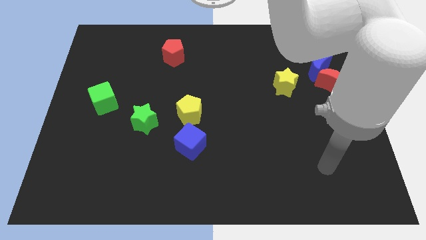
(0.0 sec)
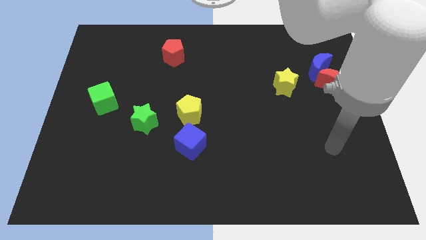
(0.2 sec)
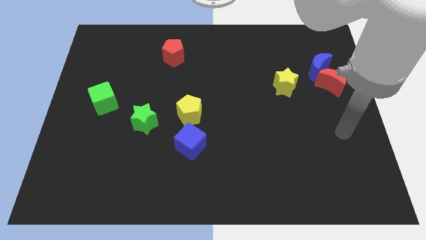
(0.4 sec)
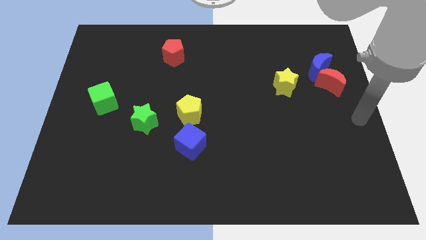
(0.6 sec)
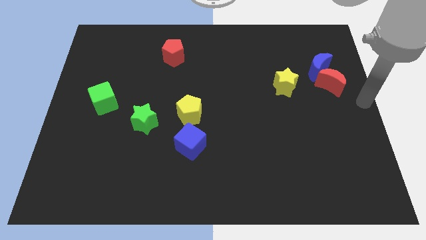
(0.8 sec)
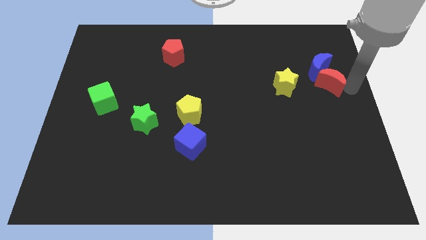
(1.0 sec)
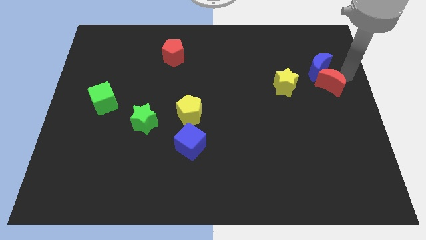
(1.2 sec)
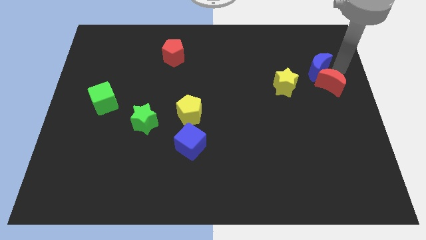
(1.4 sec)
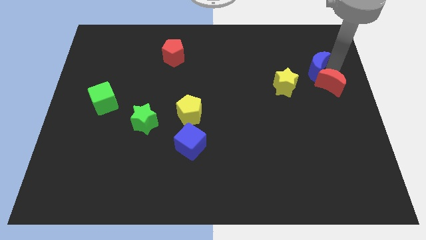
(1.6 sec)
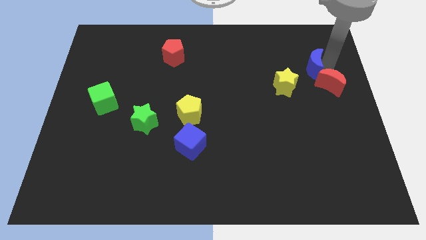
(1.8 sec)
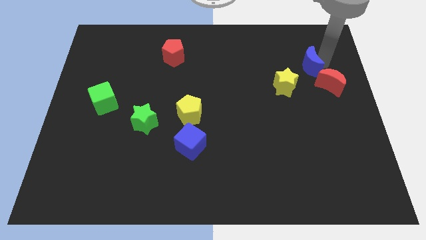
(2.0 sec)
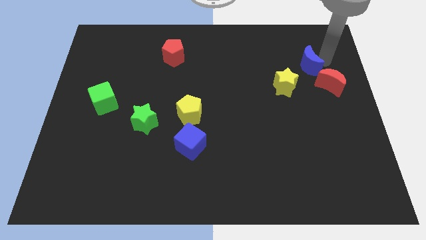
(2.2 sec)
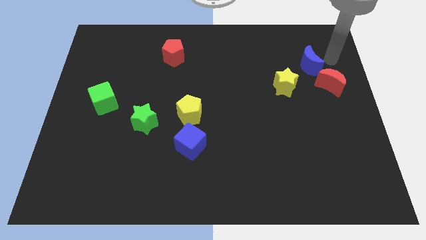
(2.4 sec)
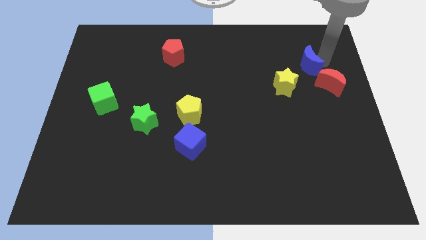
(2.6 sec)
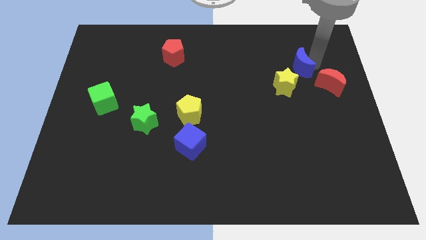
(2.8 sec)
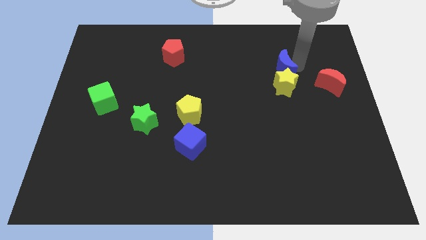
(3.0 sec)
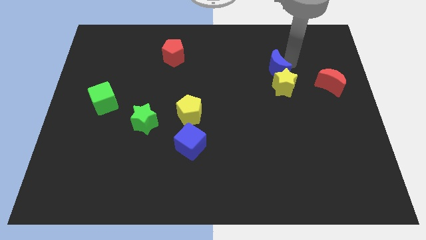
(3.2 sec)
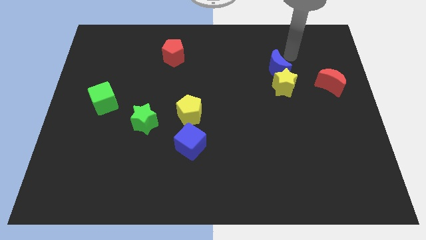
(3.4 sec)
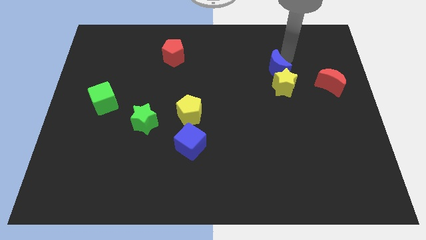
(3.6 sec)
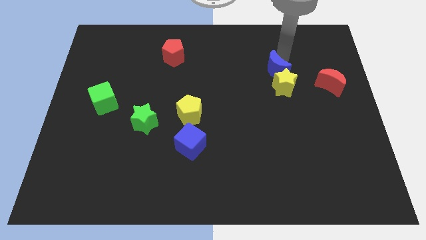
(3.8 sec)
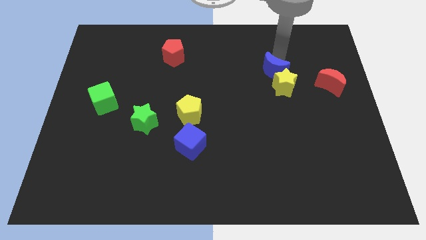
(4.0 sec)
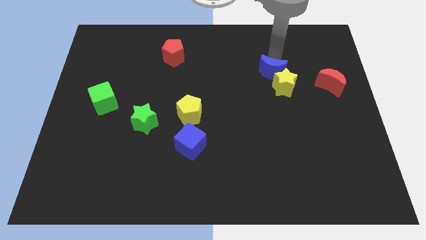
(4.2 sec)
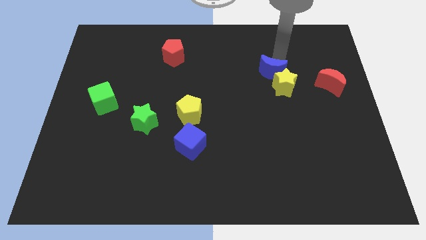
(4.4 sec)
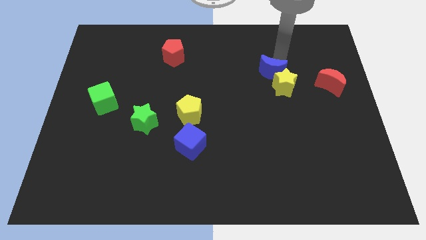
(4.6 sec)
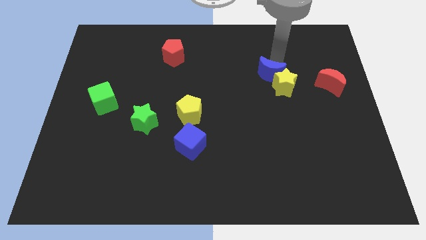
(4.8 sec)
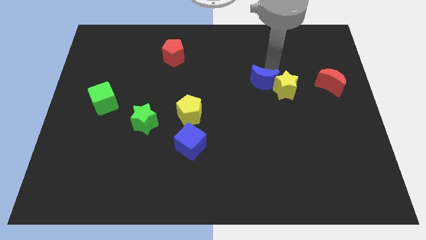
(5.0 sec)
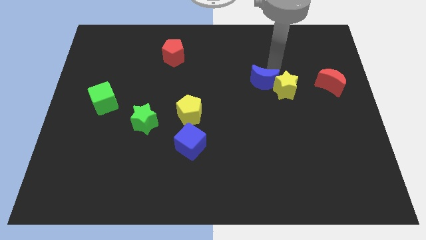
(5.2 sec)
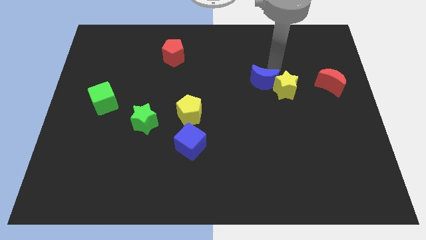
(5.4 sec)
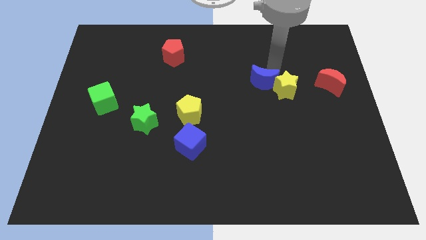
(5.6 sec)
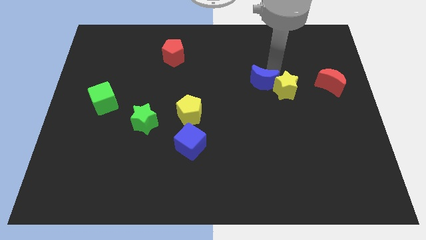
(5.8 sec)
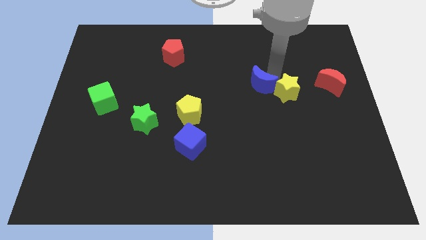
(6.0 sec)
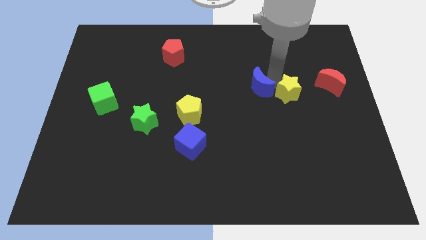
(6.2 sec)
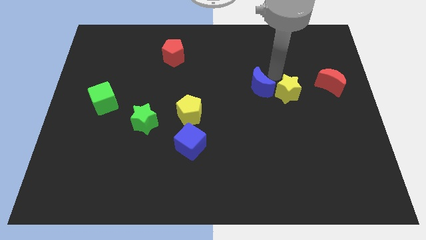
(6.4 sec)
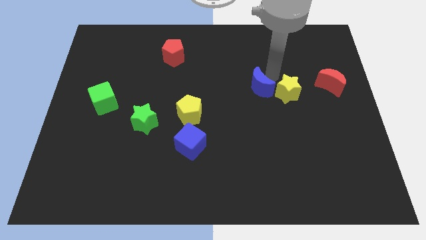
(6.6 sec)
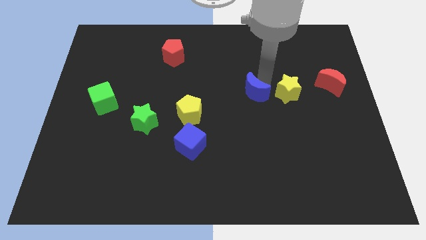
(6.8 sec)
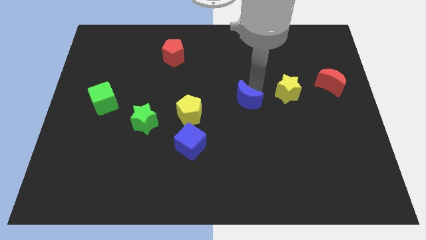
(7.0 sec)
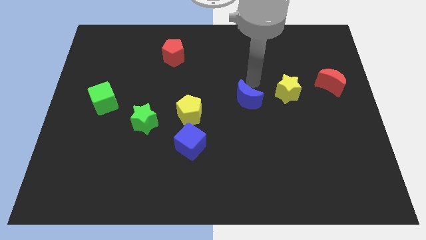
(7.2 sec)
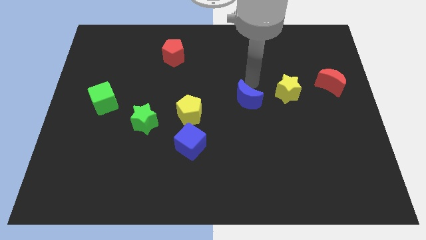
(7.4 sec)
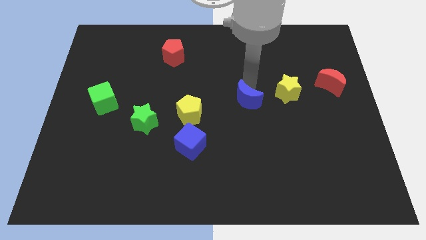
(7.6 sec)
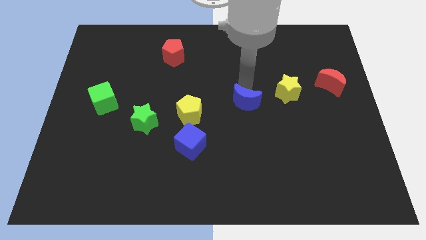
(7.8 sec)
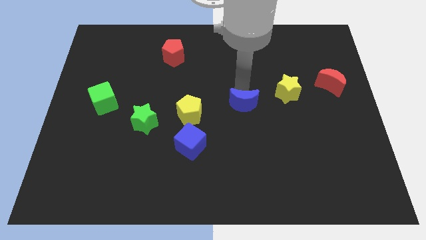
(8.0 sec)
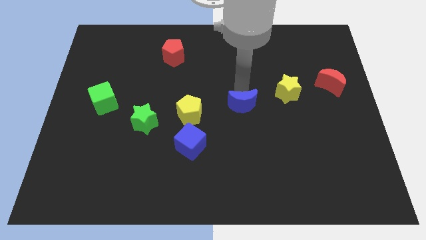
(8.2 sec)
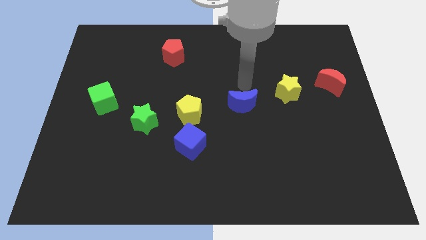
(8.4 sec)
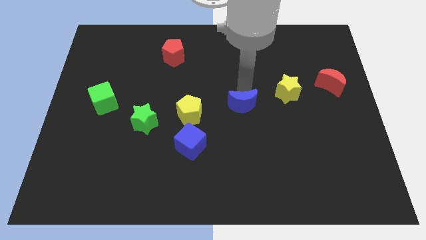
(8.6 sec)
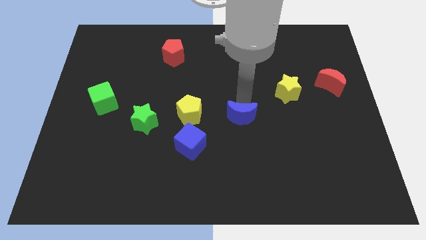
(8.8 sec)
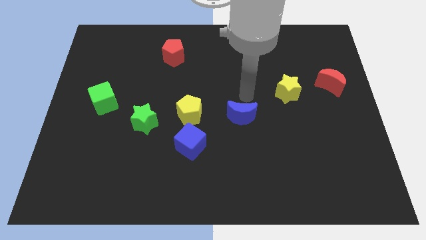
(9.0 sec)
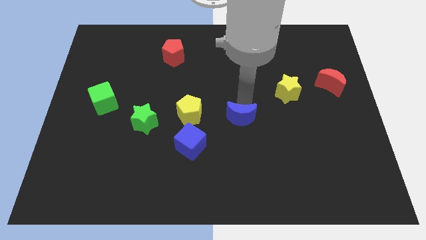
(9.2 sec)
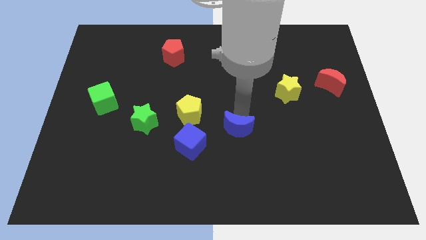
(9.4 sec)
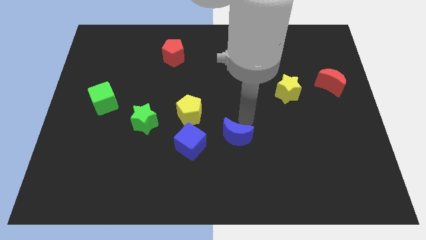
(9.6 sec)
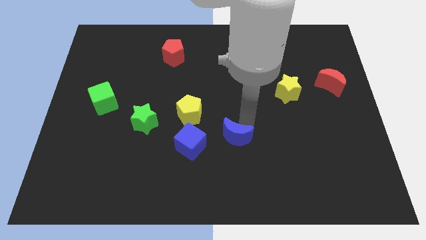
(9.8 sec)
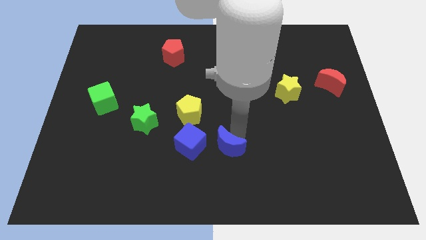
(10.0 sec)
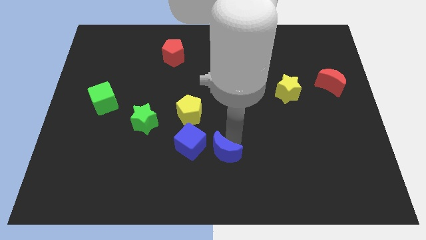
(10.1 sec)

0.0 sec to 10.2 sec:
slide the blue moon to the bottom right side of the blue cube

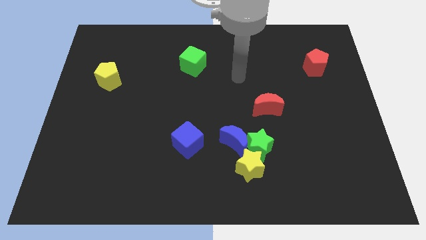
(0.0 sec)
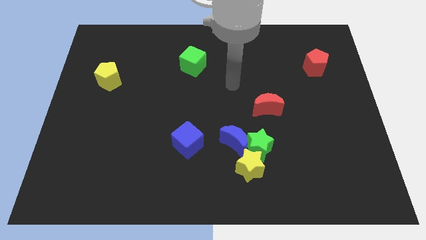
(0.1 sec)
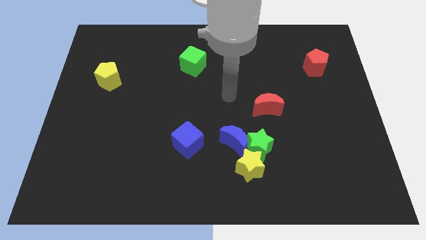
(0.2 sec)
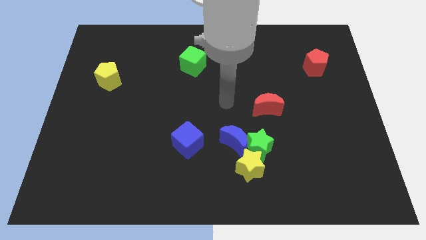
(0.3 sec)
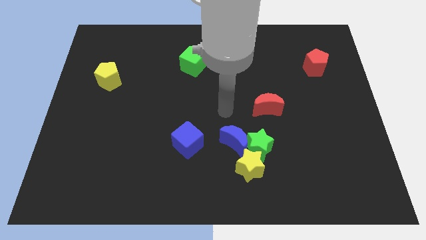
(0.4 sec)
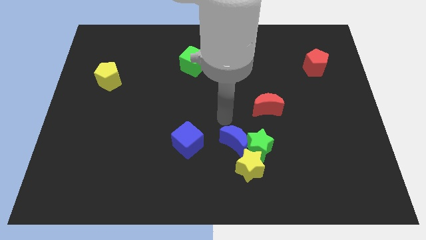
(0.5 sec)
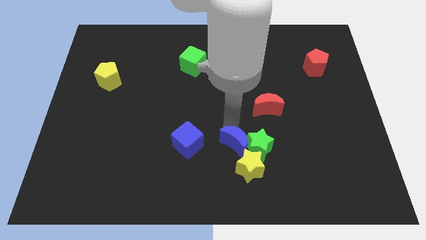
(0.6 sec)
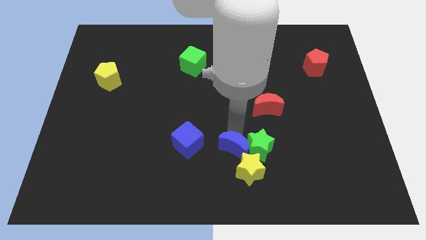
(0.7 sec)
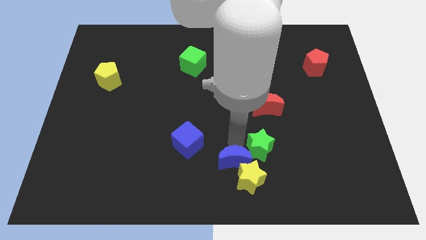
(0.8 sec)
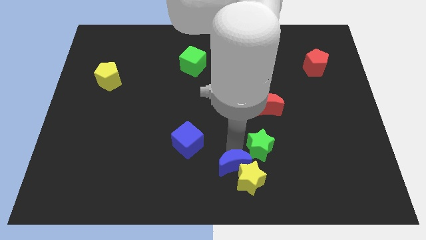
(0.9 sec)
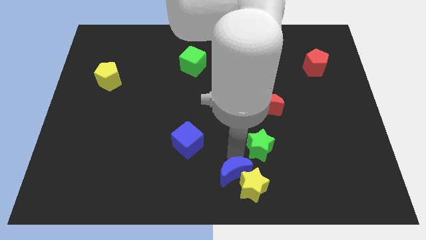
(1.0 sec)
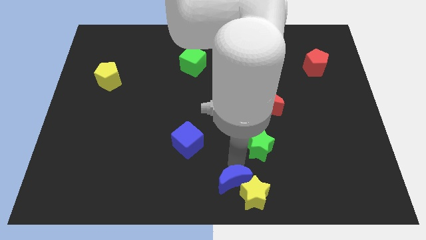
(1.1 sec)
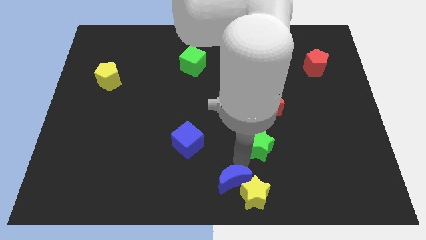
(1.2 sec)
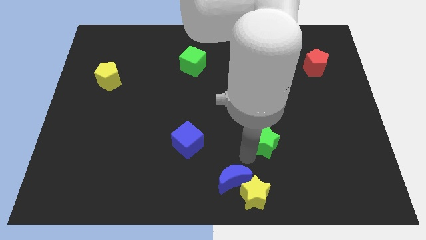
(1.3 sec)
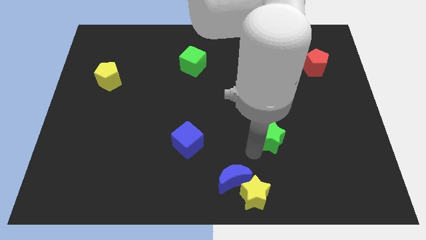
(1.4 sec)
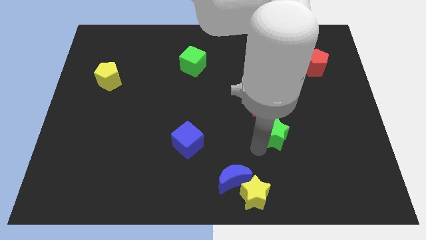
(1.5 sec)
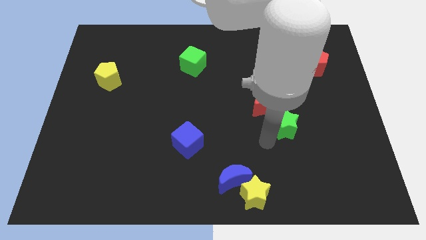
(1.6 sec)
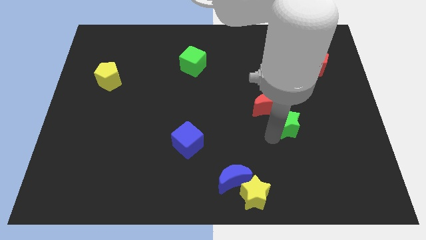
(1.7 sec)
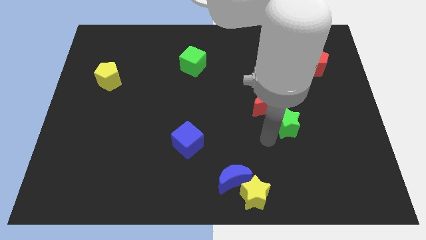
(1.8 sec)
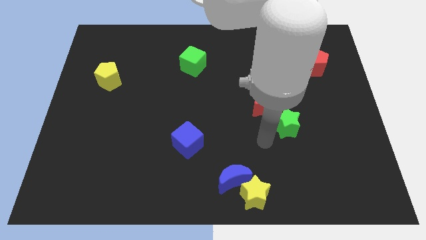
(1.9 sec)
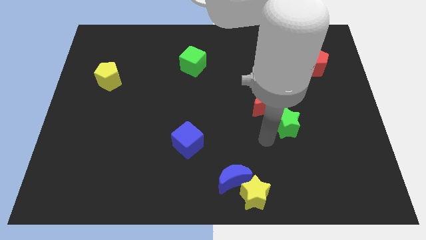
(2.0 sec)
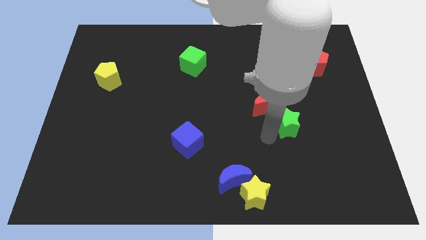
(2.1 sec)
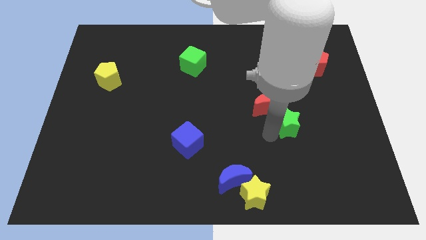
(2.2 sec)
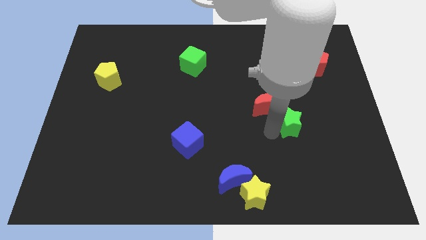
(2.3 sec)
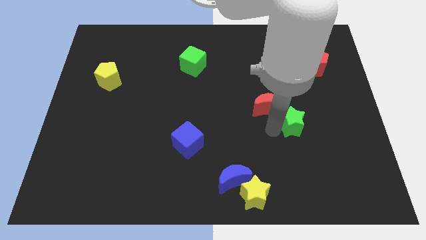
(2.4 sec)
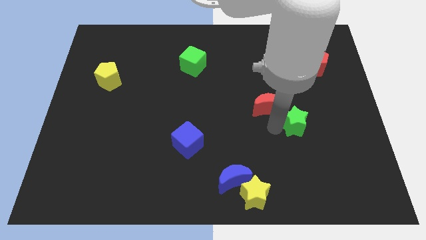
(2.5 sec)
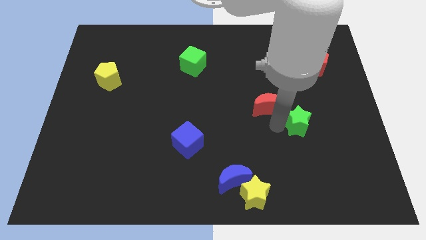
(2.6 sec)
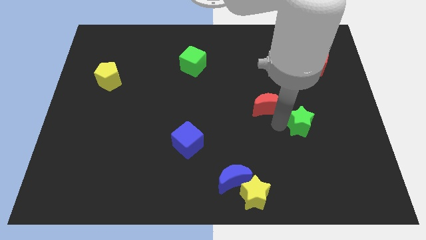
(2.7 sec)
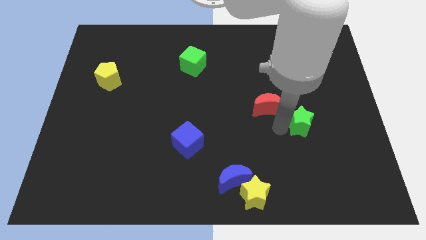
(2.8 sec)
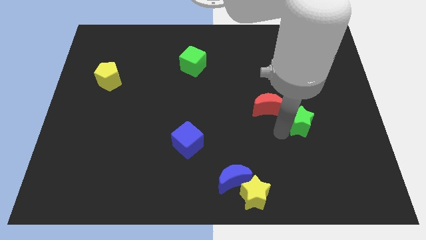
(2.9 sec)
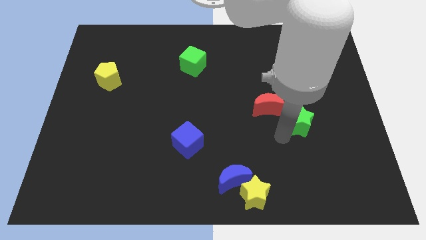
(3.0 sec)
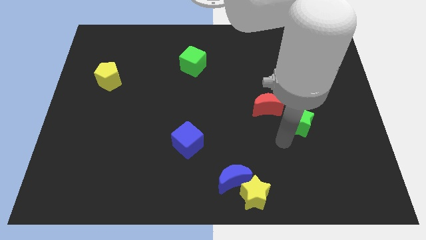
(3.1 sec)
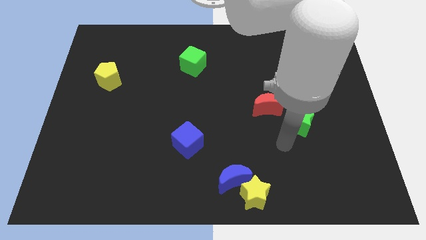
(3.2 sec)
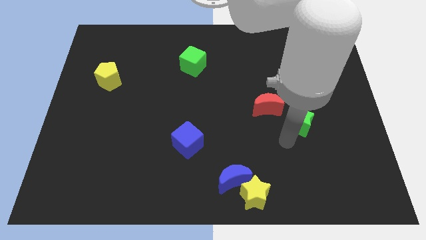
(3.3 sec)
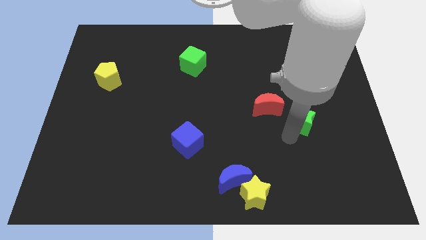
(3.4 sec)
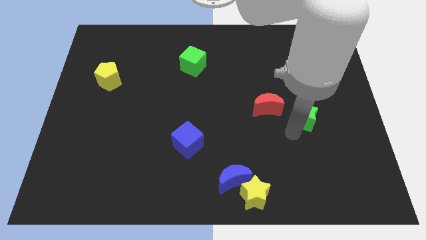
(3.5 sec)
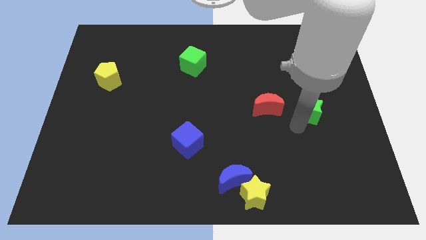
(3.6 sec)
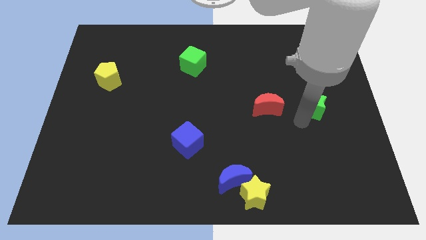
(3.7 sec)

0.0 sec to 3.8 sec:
slide the green star to the bottom side of the red pentagon
